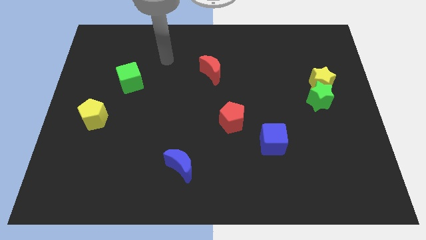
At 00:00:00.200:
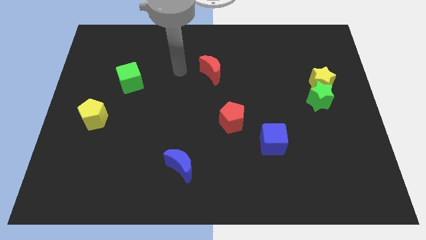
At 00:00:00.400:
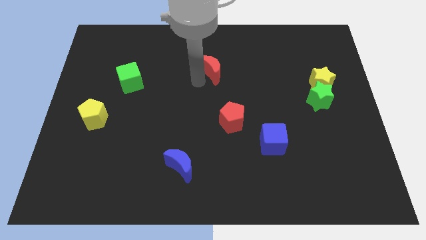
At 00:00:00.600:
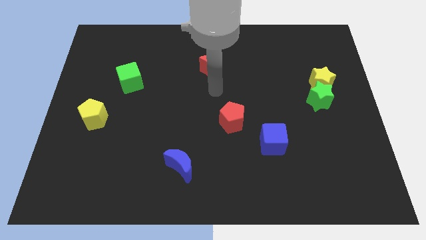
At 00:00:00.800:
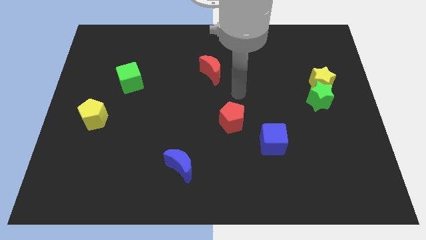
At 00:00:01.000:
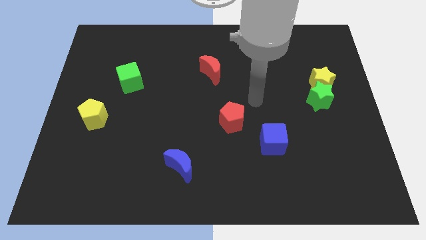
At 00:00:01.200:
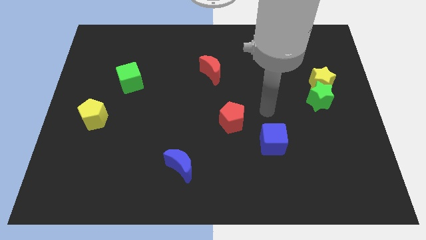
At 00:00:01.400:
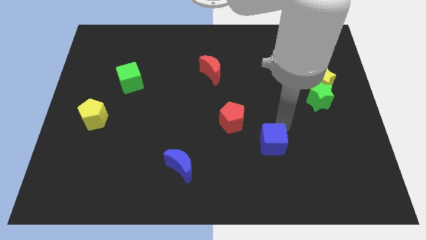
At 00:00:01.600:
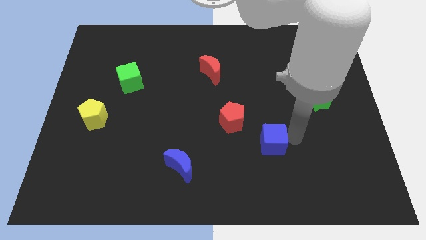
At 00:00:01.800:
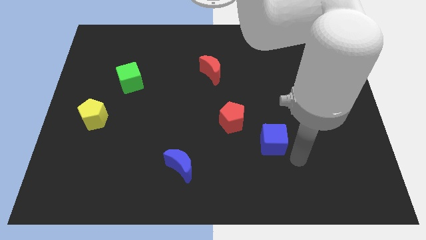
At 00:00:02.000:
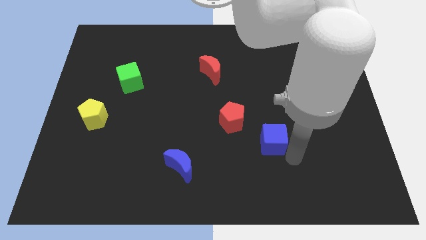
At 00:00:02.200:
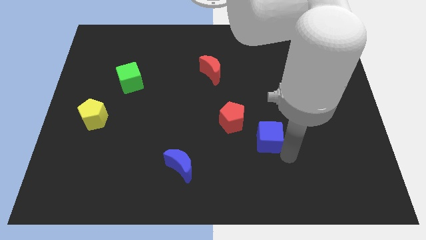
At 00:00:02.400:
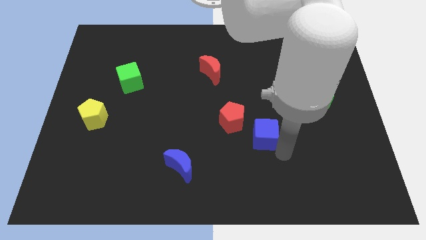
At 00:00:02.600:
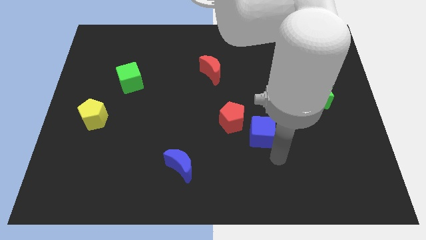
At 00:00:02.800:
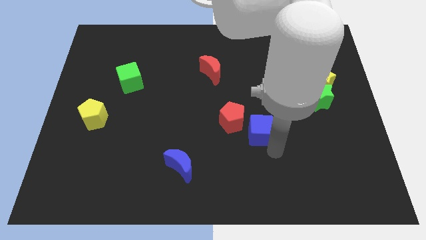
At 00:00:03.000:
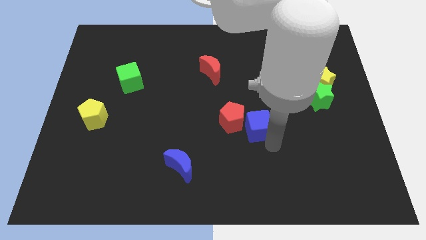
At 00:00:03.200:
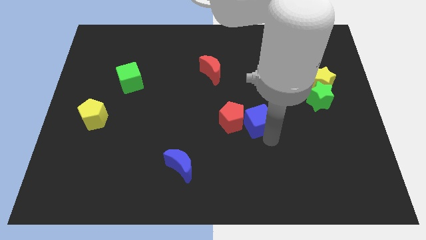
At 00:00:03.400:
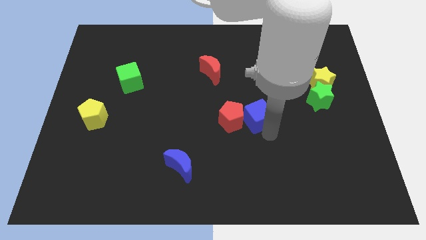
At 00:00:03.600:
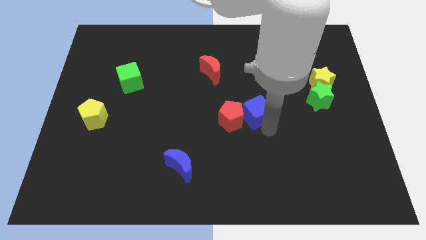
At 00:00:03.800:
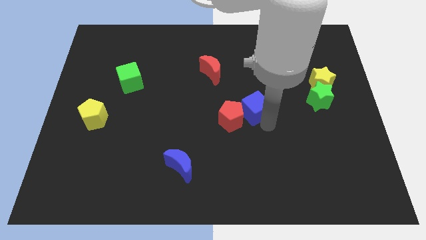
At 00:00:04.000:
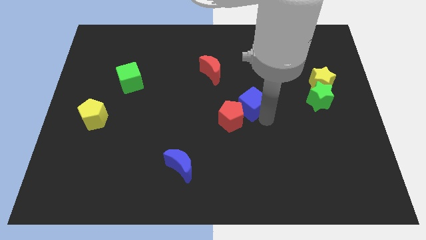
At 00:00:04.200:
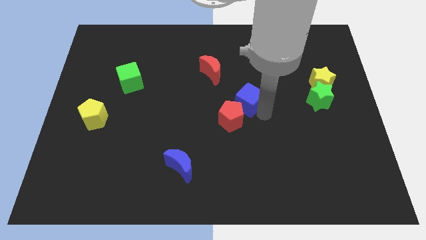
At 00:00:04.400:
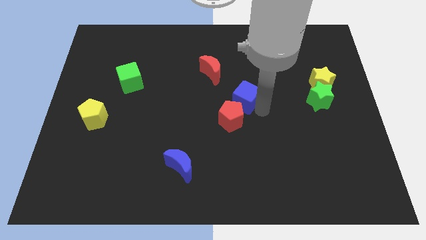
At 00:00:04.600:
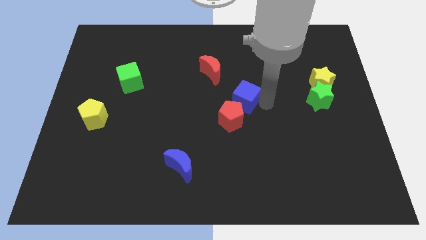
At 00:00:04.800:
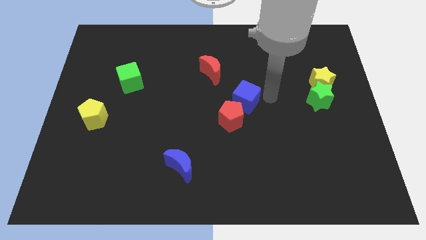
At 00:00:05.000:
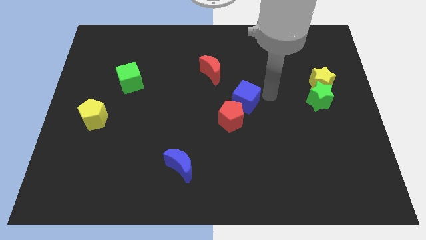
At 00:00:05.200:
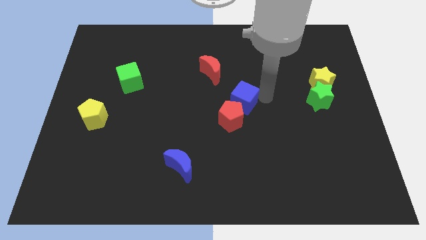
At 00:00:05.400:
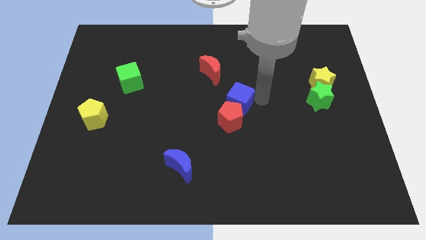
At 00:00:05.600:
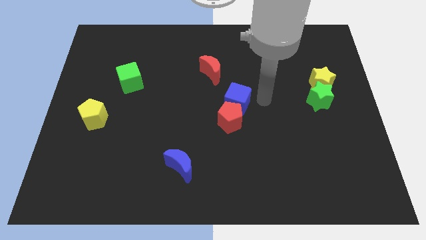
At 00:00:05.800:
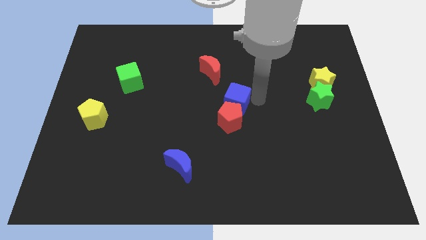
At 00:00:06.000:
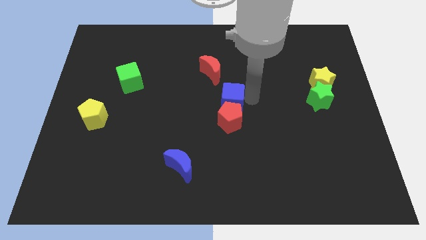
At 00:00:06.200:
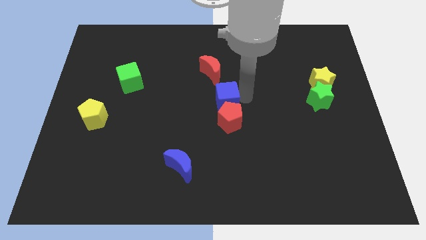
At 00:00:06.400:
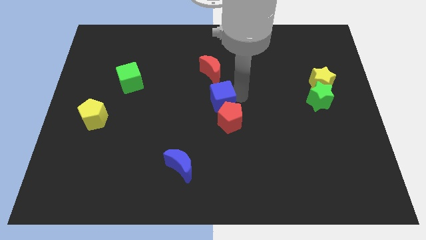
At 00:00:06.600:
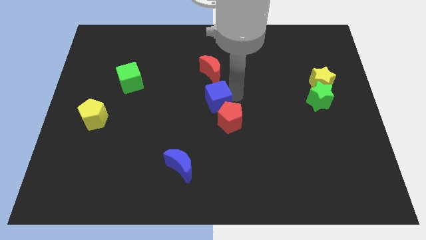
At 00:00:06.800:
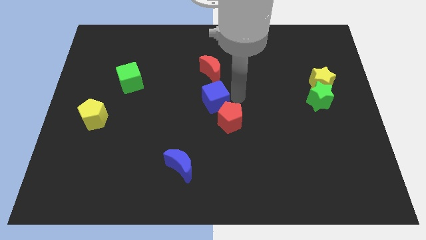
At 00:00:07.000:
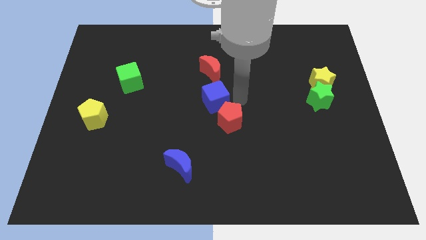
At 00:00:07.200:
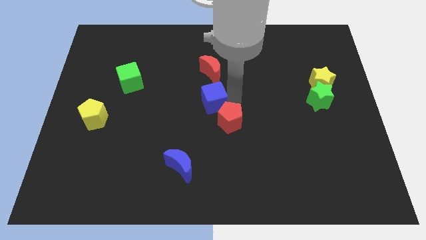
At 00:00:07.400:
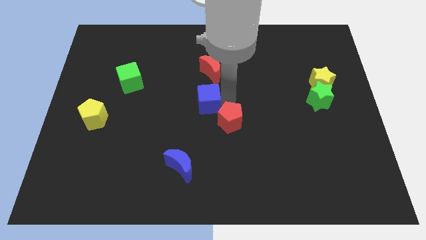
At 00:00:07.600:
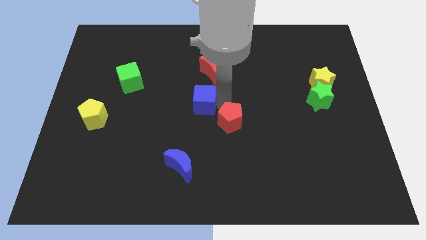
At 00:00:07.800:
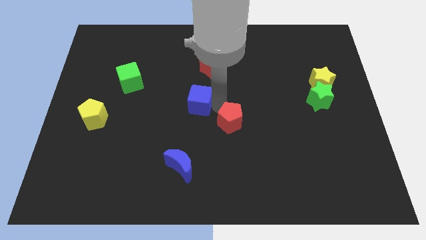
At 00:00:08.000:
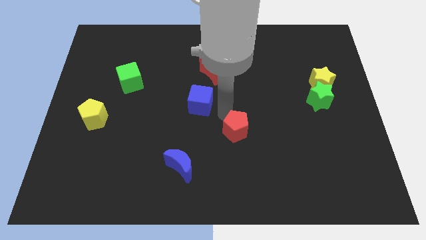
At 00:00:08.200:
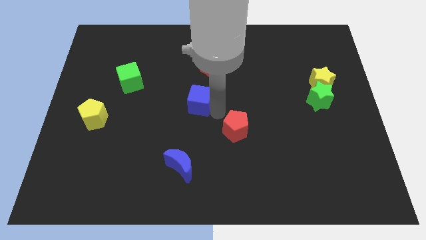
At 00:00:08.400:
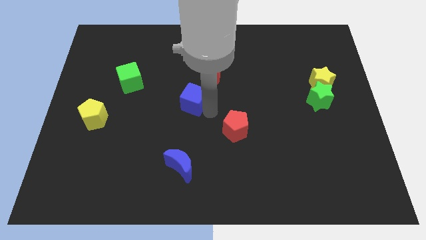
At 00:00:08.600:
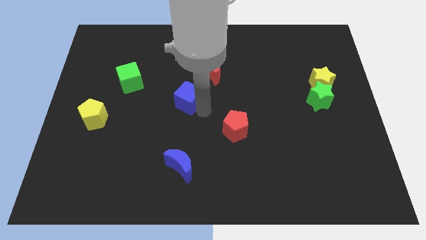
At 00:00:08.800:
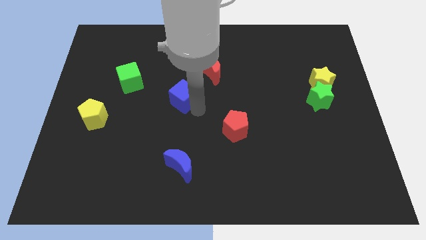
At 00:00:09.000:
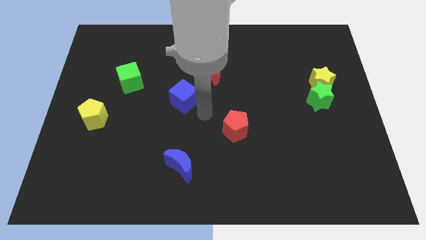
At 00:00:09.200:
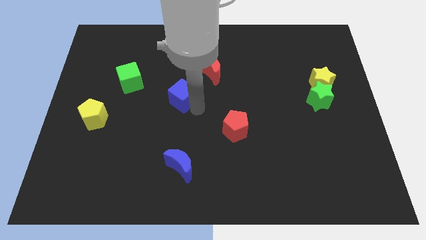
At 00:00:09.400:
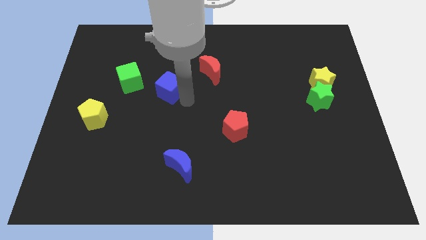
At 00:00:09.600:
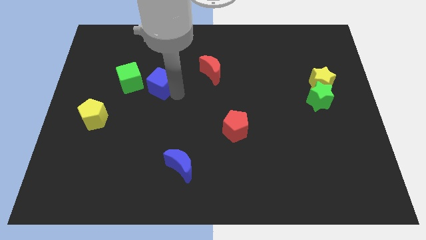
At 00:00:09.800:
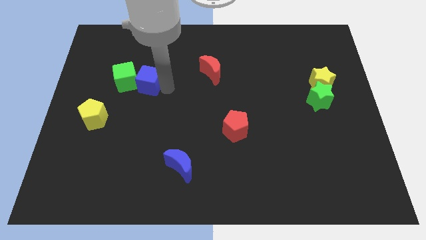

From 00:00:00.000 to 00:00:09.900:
move the blue cube close to the green cube

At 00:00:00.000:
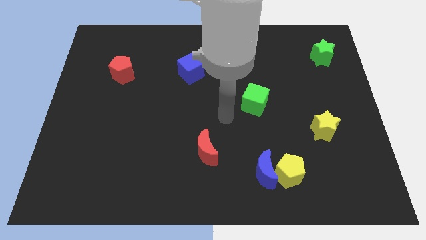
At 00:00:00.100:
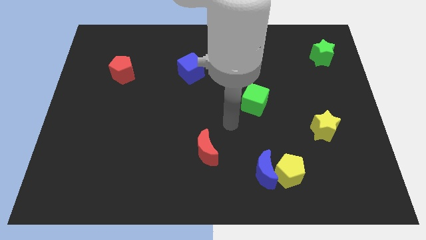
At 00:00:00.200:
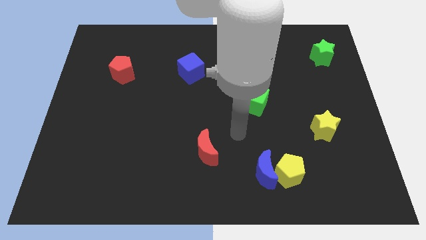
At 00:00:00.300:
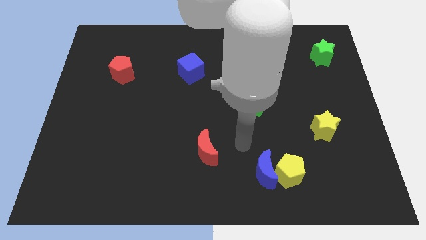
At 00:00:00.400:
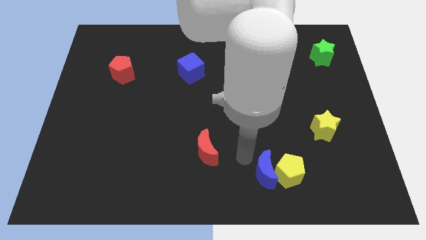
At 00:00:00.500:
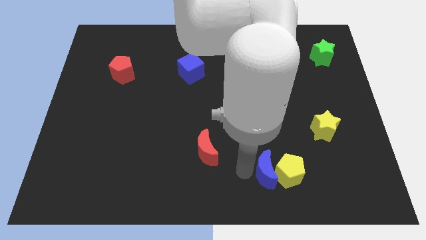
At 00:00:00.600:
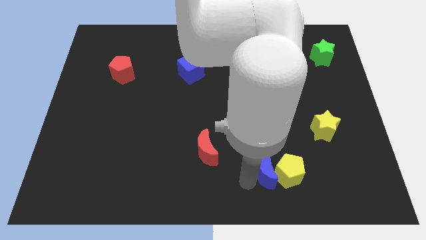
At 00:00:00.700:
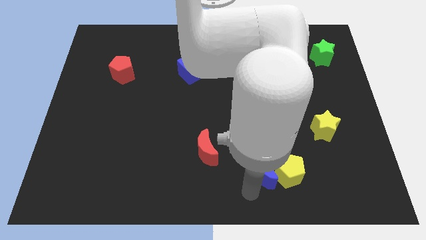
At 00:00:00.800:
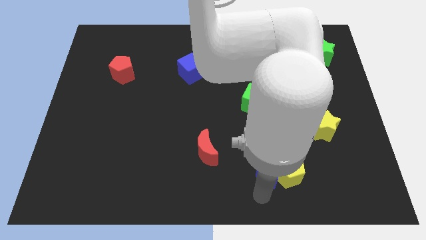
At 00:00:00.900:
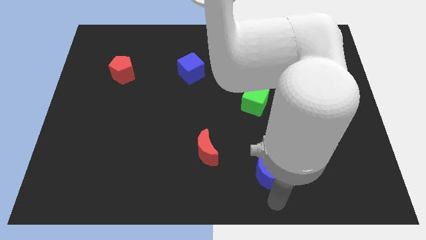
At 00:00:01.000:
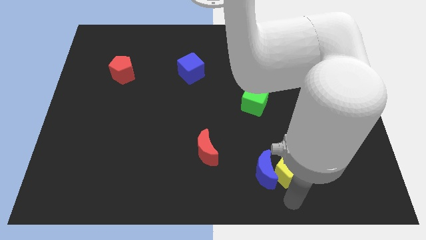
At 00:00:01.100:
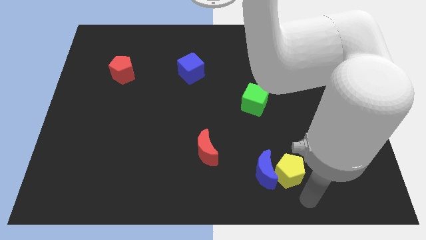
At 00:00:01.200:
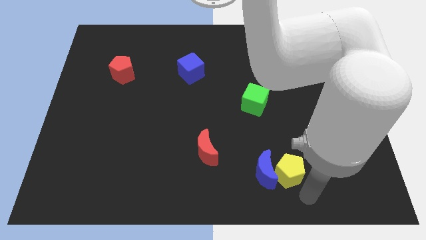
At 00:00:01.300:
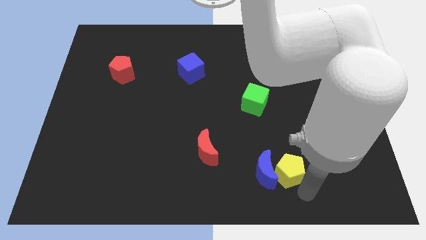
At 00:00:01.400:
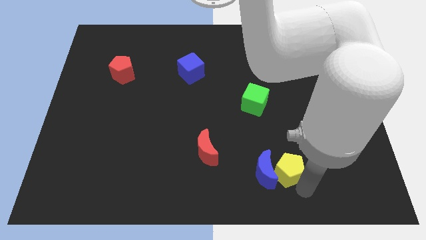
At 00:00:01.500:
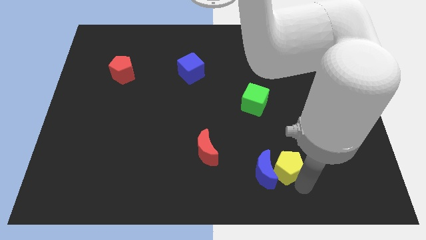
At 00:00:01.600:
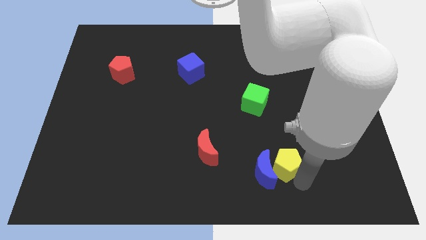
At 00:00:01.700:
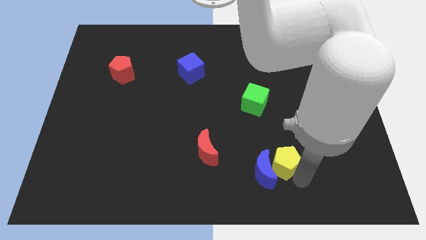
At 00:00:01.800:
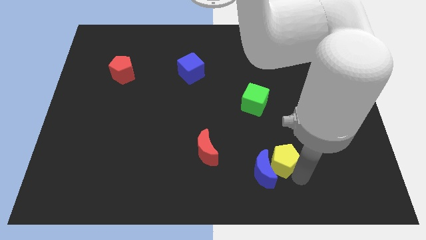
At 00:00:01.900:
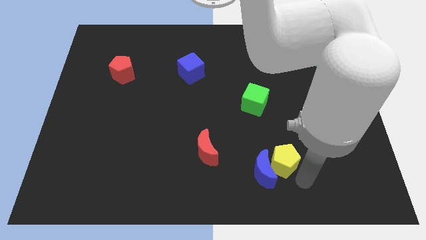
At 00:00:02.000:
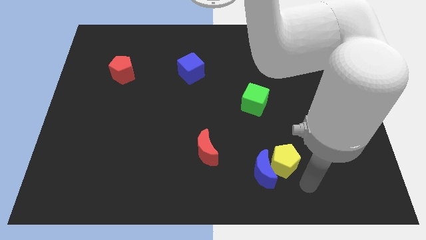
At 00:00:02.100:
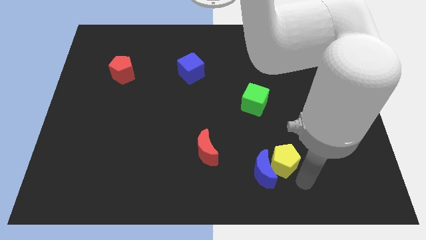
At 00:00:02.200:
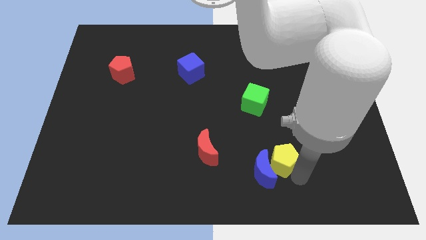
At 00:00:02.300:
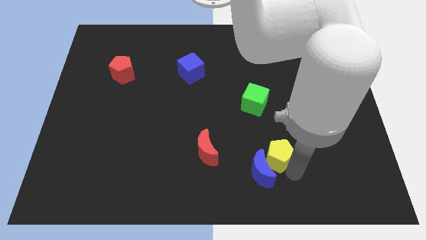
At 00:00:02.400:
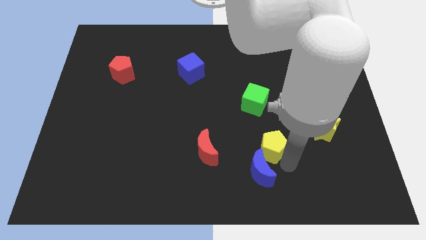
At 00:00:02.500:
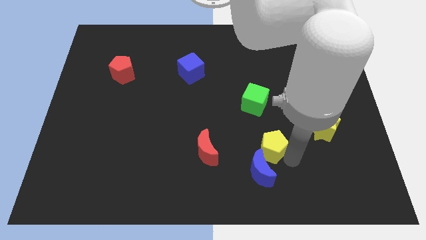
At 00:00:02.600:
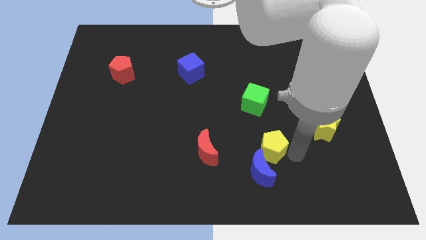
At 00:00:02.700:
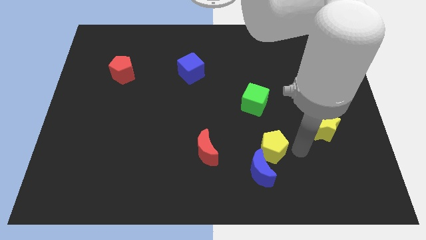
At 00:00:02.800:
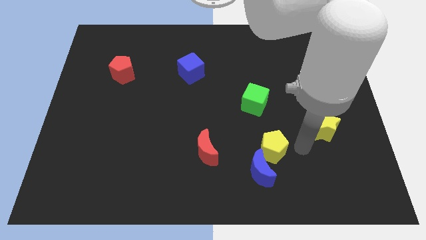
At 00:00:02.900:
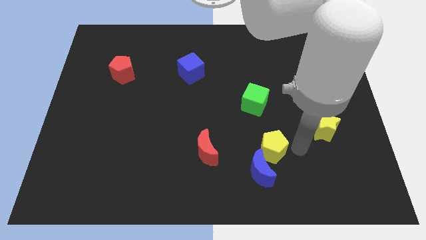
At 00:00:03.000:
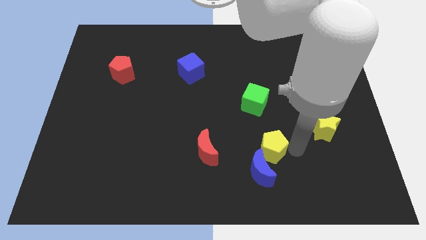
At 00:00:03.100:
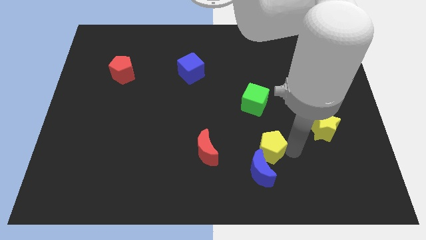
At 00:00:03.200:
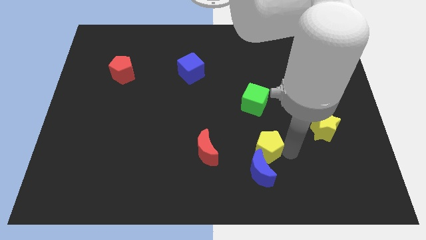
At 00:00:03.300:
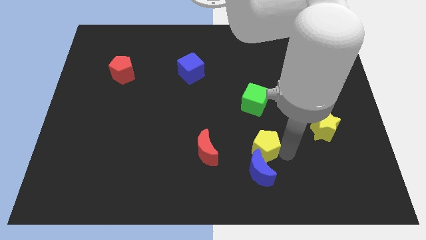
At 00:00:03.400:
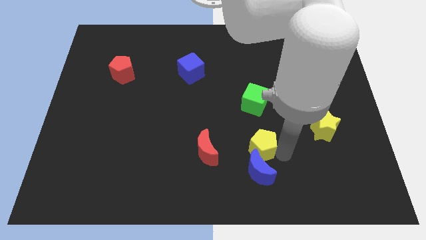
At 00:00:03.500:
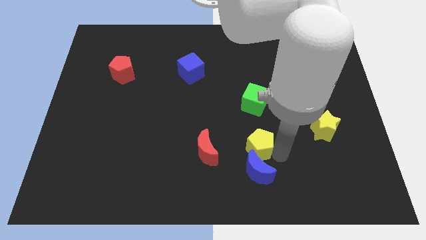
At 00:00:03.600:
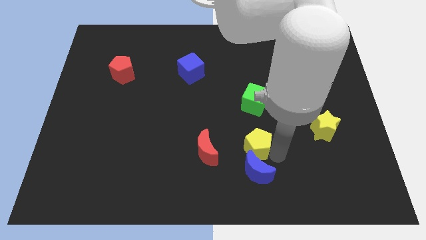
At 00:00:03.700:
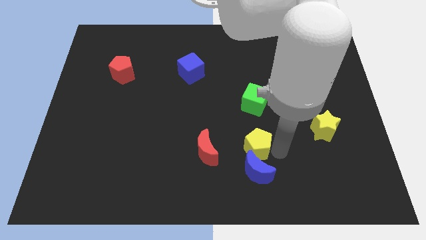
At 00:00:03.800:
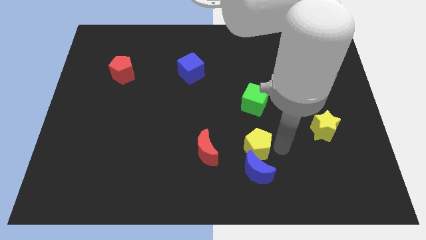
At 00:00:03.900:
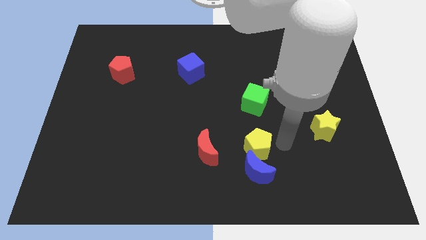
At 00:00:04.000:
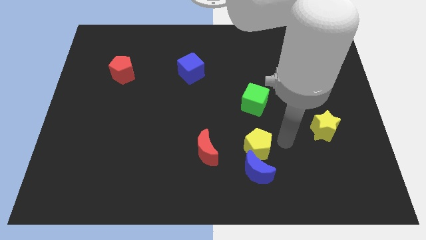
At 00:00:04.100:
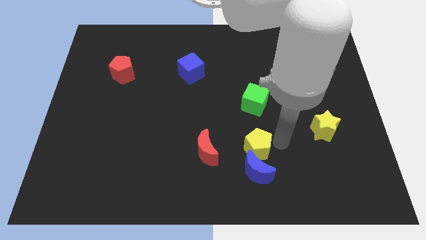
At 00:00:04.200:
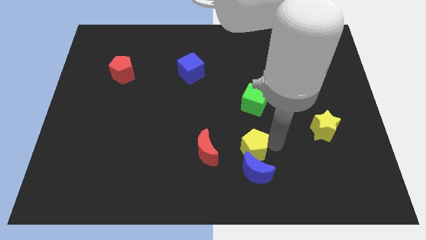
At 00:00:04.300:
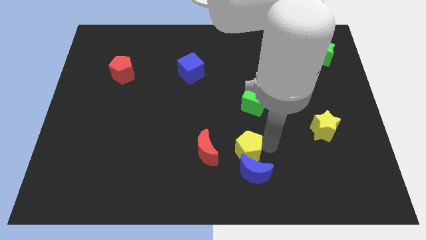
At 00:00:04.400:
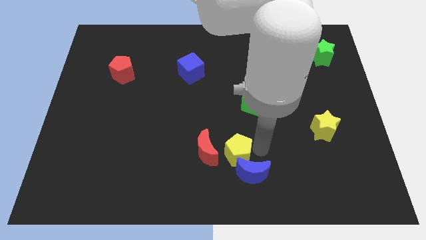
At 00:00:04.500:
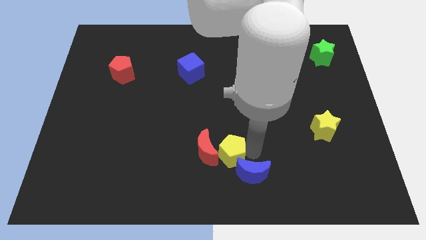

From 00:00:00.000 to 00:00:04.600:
move the yellow pentagon towards the red moon
